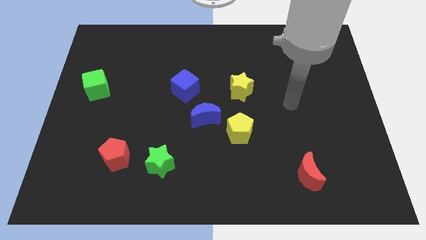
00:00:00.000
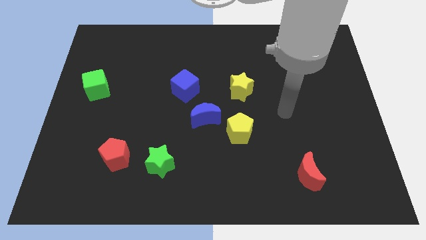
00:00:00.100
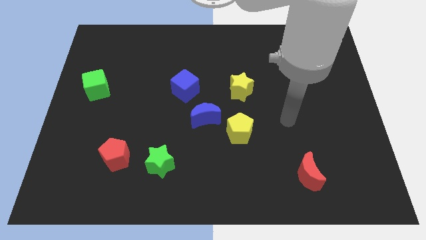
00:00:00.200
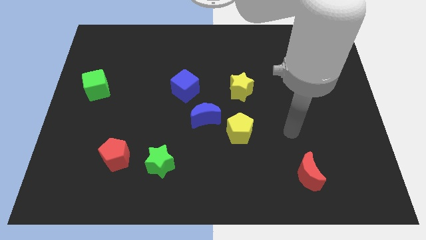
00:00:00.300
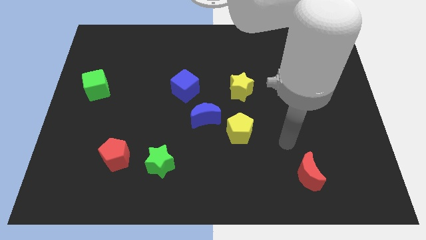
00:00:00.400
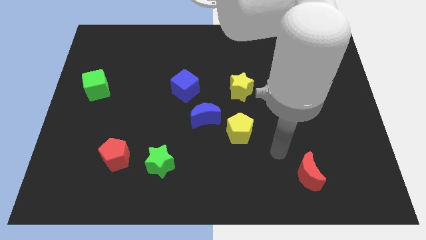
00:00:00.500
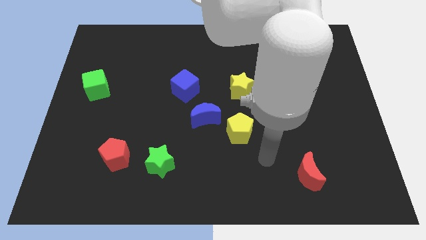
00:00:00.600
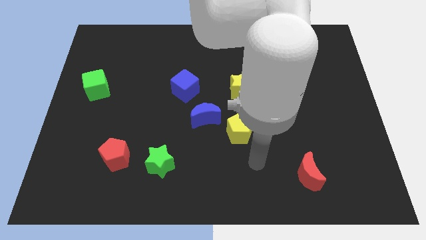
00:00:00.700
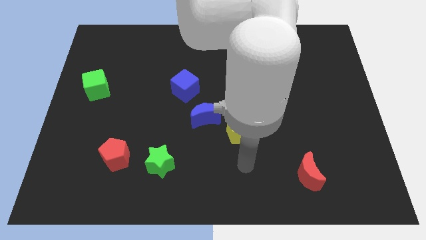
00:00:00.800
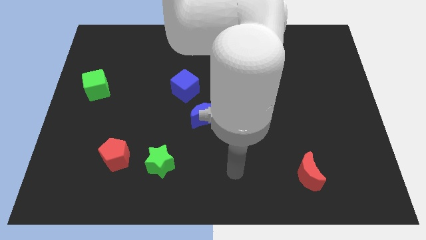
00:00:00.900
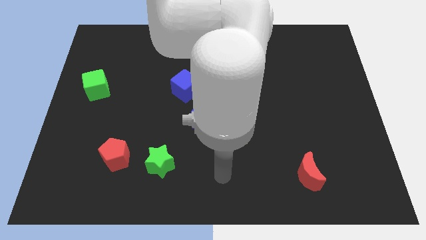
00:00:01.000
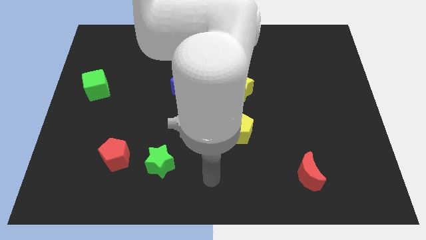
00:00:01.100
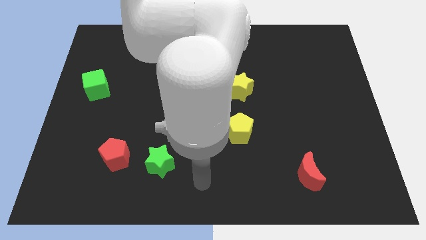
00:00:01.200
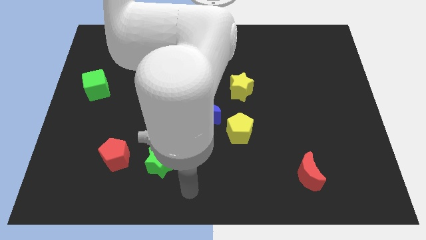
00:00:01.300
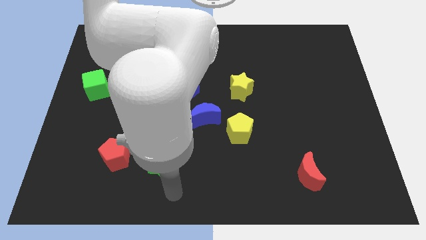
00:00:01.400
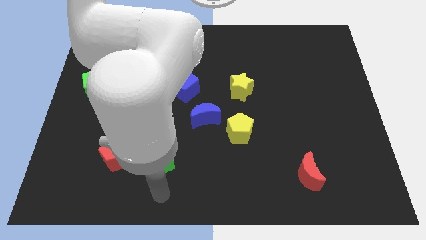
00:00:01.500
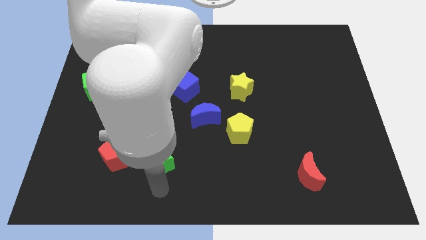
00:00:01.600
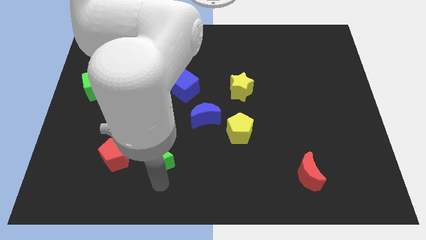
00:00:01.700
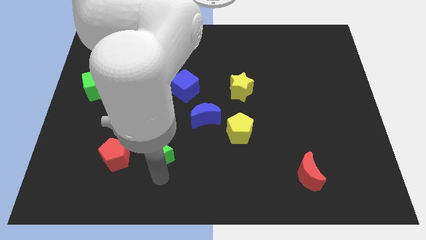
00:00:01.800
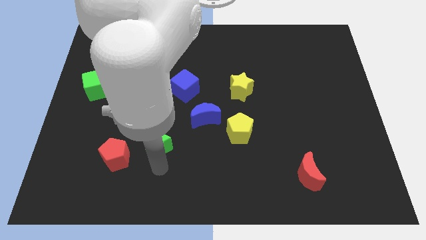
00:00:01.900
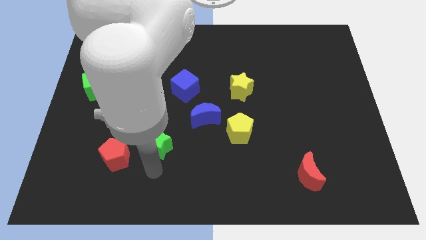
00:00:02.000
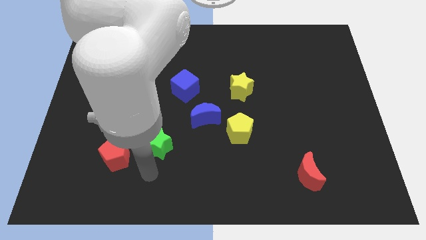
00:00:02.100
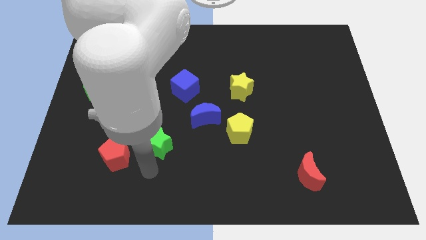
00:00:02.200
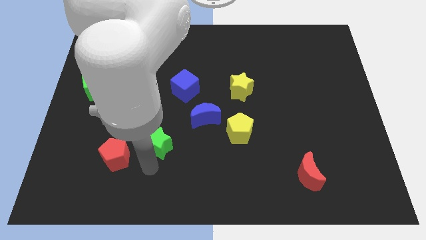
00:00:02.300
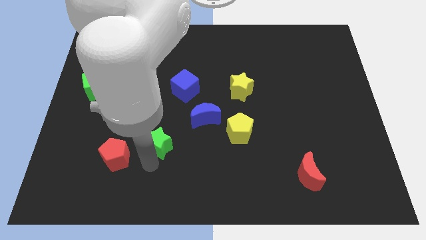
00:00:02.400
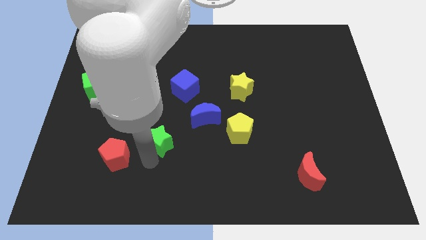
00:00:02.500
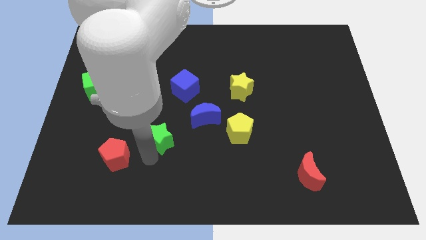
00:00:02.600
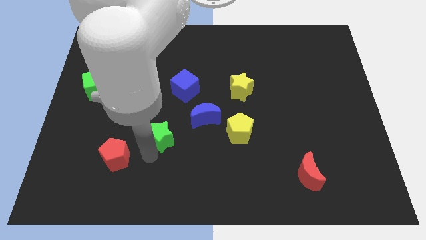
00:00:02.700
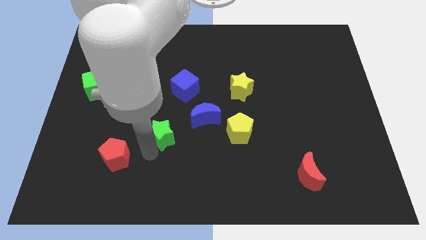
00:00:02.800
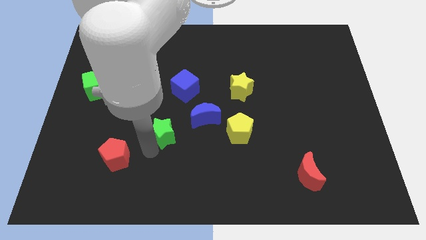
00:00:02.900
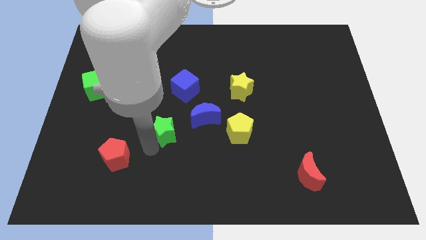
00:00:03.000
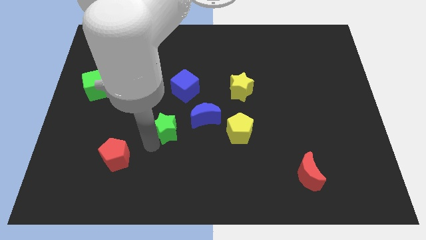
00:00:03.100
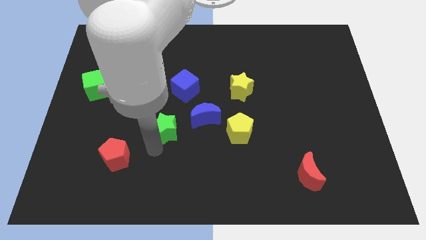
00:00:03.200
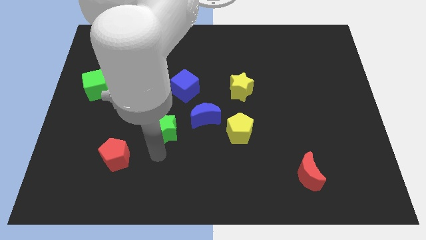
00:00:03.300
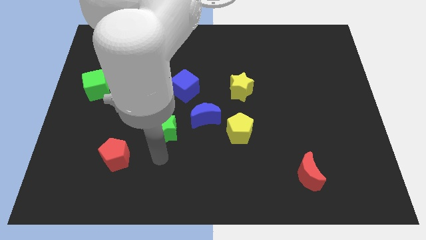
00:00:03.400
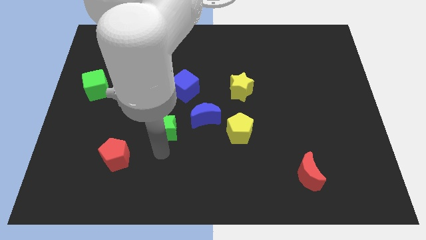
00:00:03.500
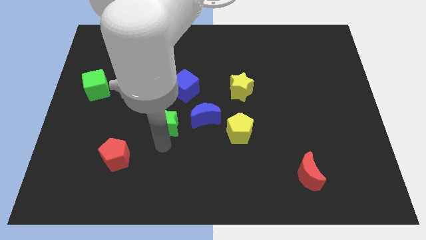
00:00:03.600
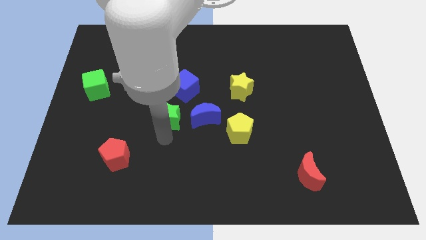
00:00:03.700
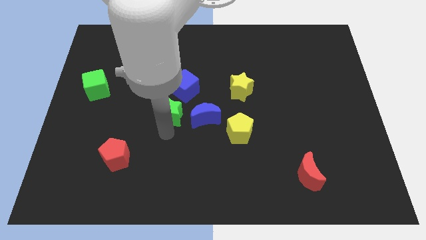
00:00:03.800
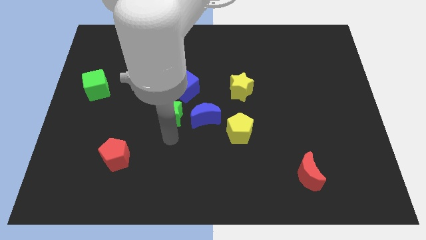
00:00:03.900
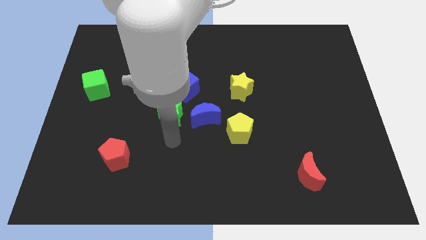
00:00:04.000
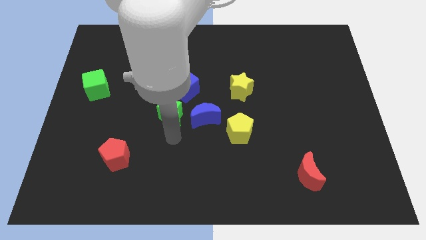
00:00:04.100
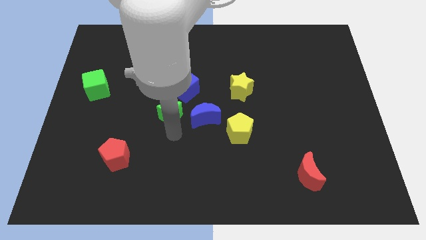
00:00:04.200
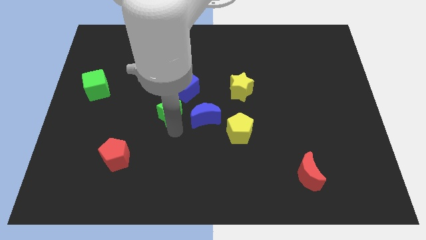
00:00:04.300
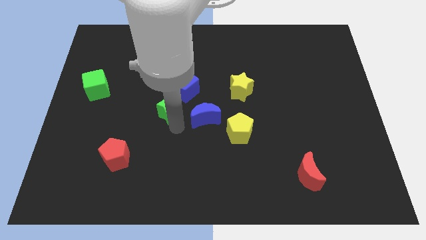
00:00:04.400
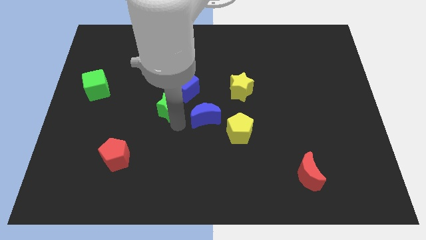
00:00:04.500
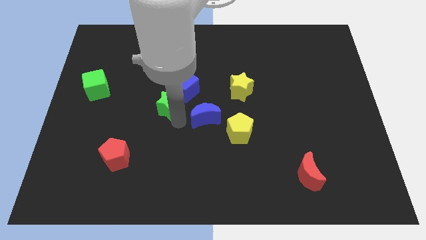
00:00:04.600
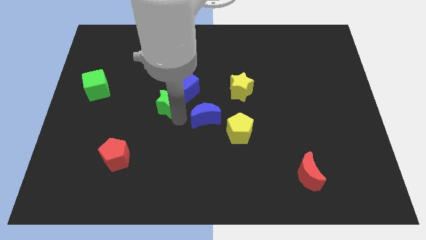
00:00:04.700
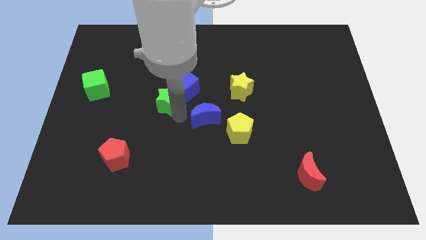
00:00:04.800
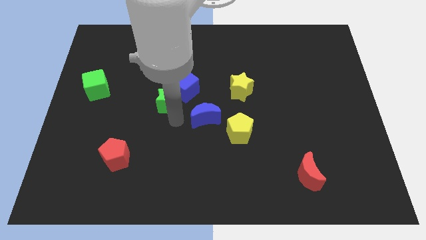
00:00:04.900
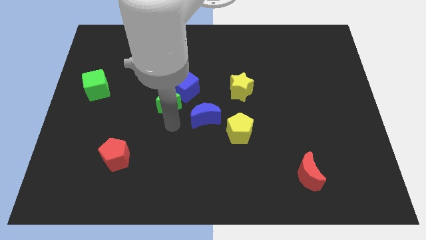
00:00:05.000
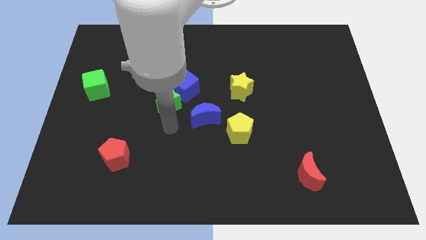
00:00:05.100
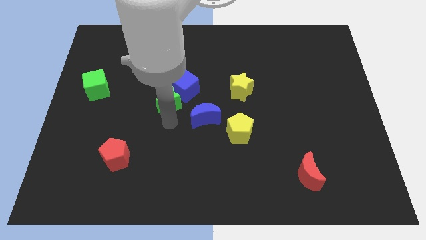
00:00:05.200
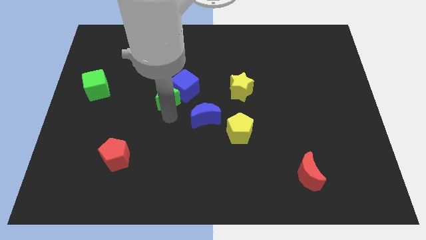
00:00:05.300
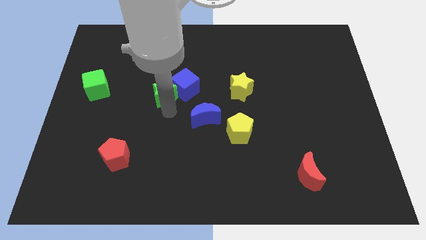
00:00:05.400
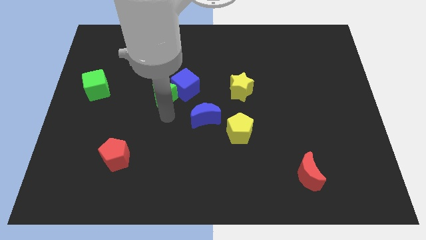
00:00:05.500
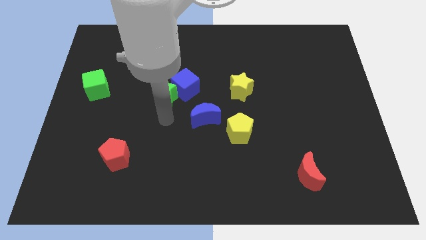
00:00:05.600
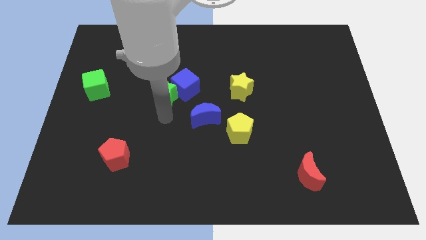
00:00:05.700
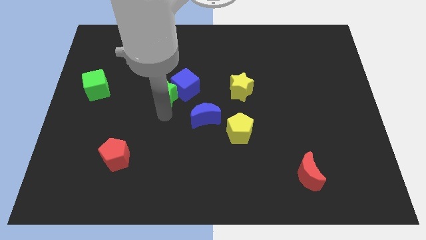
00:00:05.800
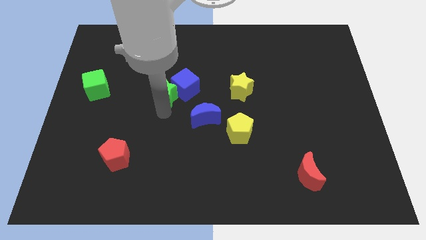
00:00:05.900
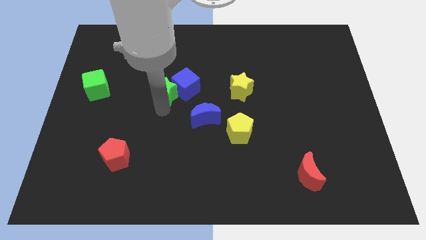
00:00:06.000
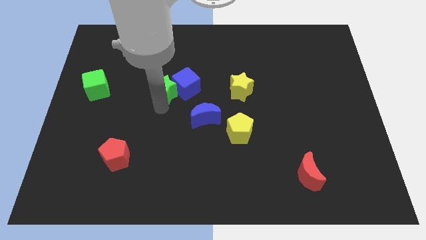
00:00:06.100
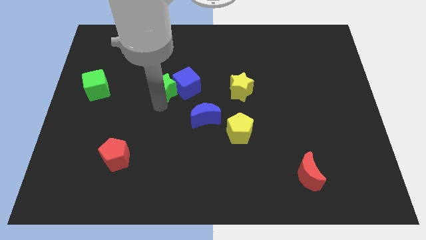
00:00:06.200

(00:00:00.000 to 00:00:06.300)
push the green star up

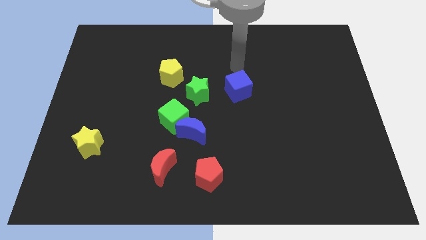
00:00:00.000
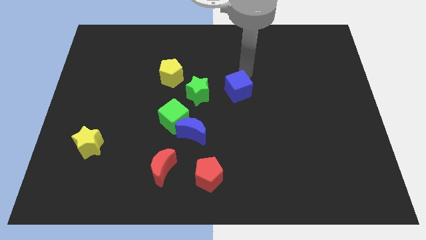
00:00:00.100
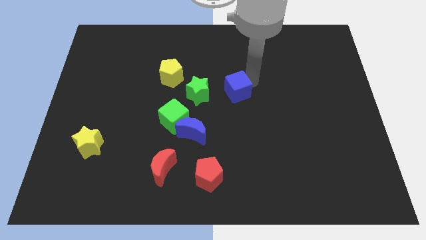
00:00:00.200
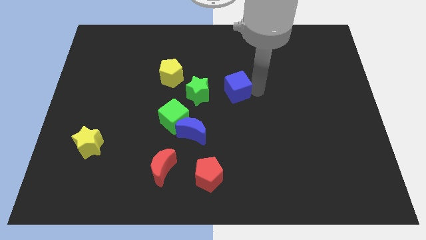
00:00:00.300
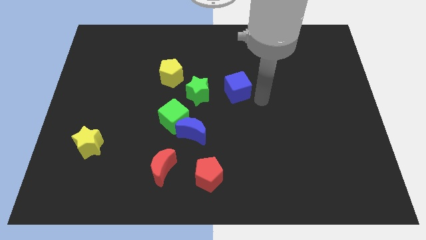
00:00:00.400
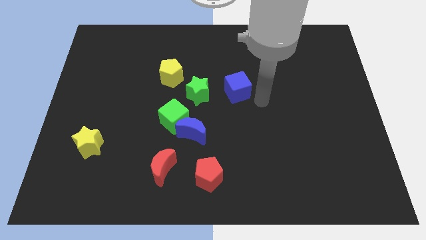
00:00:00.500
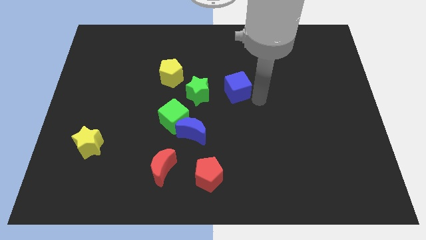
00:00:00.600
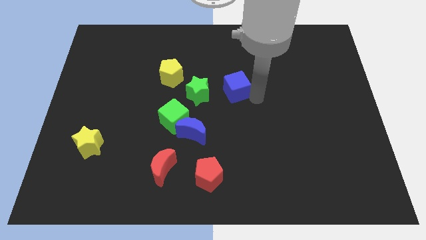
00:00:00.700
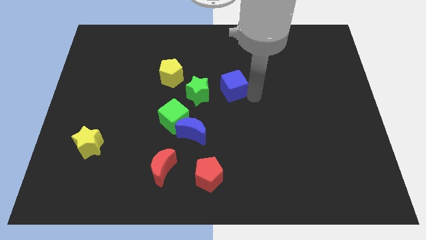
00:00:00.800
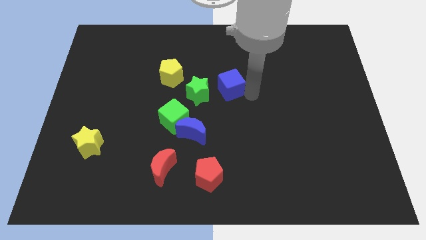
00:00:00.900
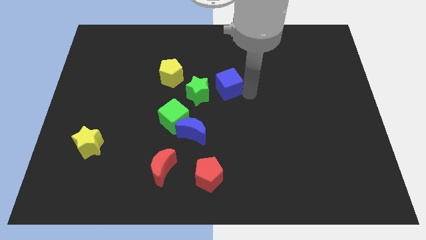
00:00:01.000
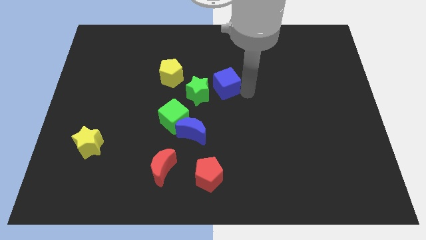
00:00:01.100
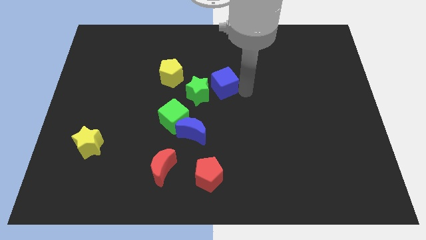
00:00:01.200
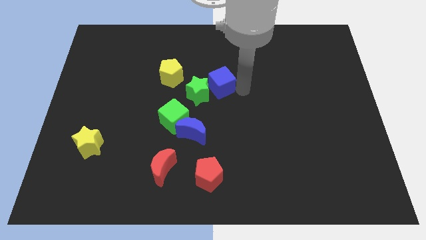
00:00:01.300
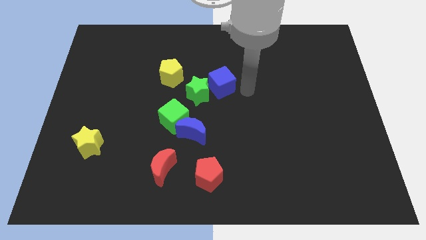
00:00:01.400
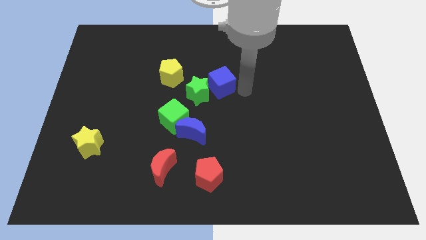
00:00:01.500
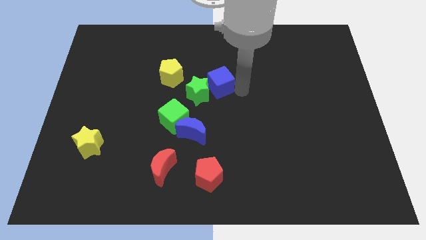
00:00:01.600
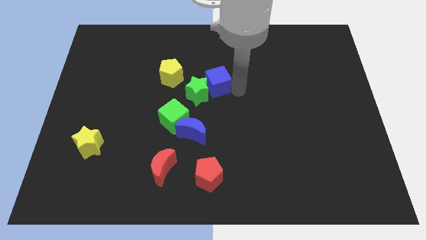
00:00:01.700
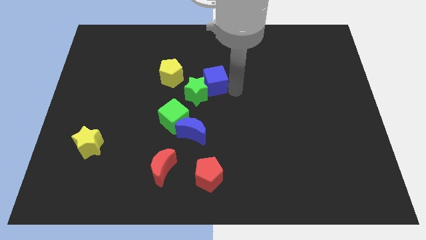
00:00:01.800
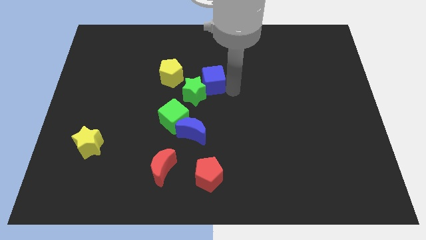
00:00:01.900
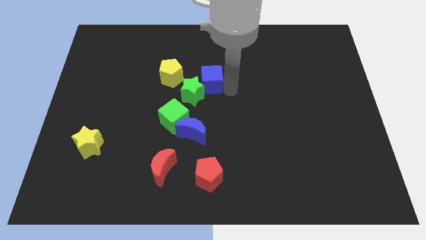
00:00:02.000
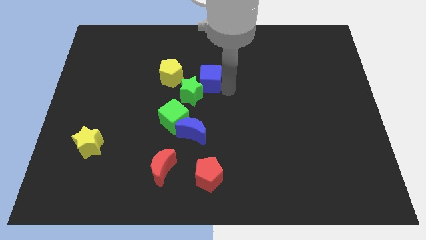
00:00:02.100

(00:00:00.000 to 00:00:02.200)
push the blue cube left a bit

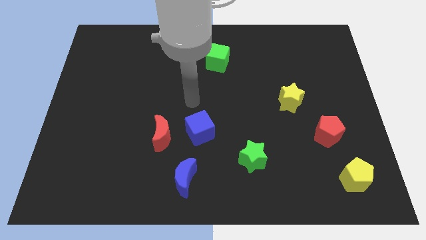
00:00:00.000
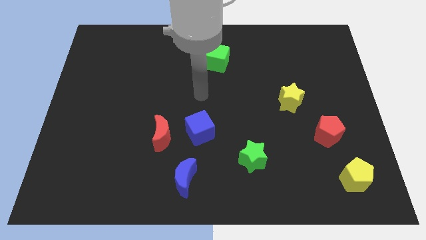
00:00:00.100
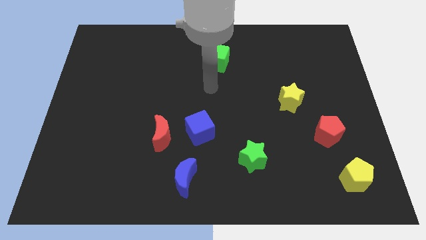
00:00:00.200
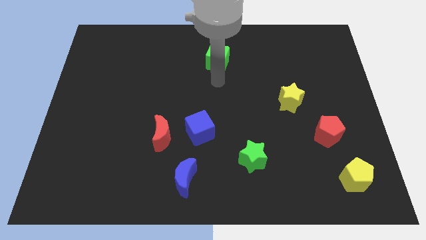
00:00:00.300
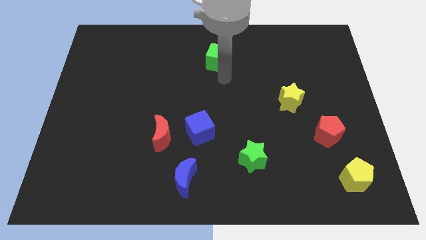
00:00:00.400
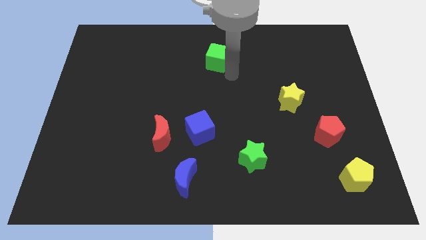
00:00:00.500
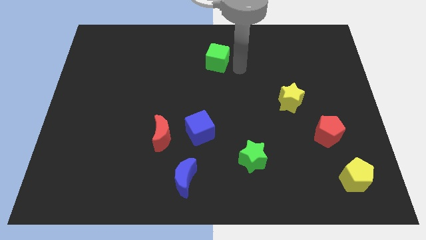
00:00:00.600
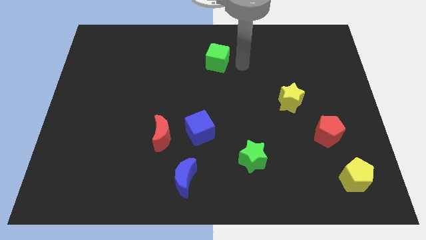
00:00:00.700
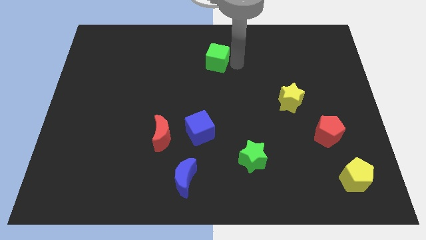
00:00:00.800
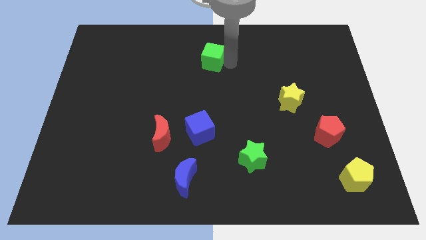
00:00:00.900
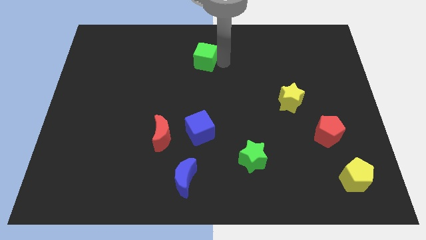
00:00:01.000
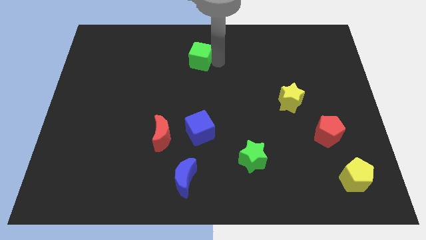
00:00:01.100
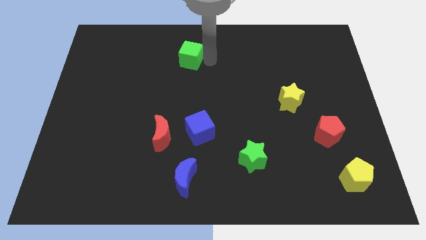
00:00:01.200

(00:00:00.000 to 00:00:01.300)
move the green cube to the left slightly
